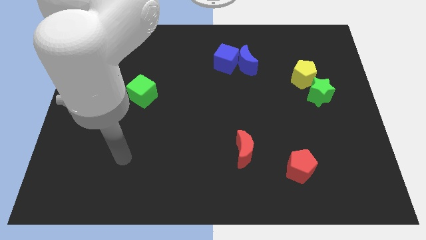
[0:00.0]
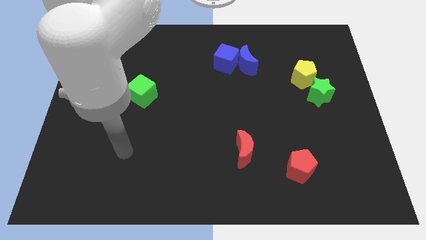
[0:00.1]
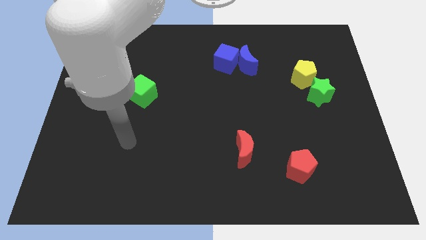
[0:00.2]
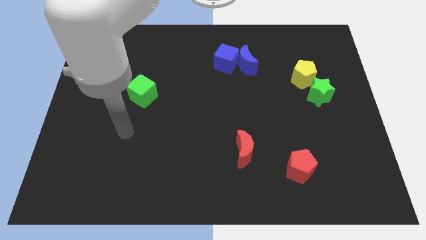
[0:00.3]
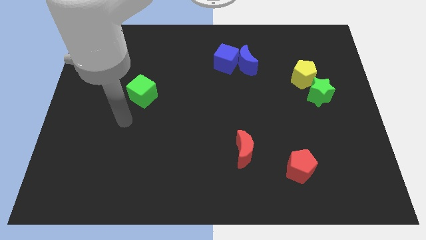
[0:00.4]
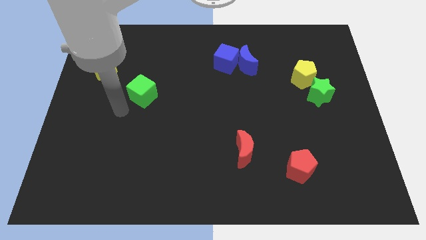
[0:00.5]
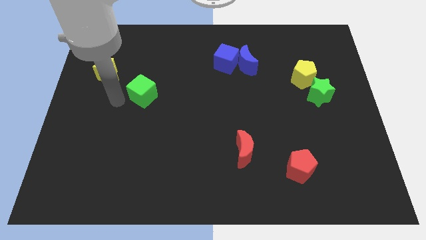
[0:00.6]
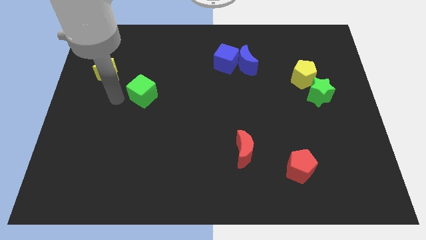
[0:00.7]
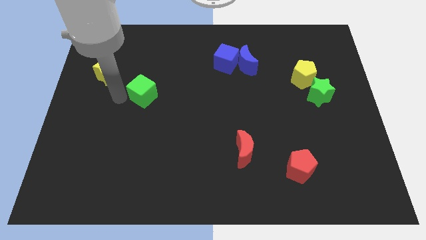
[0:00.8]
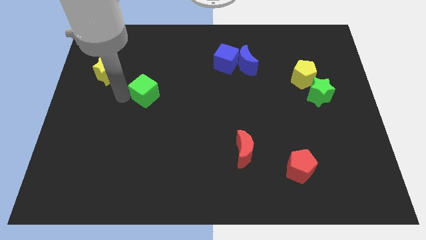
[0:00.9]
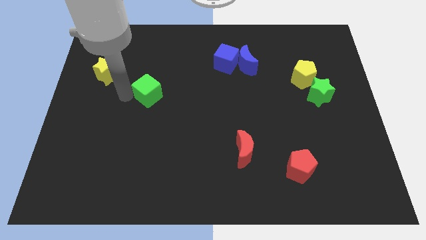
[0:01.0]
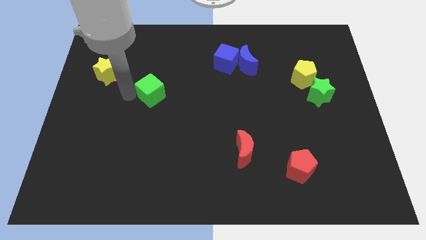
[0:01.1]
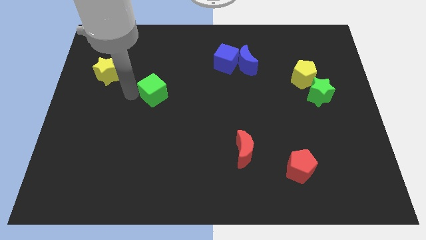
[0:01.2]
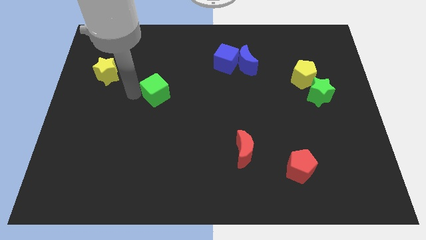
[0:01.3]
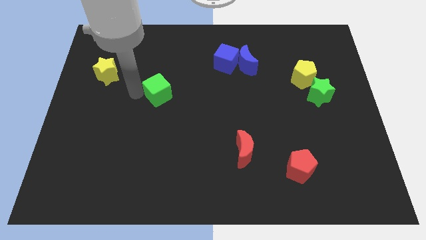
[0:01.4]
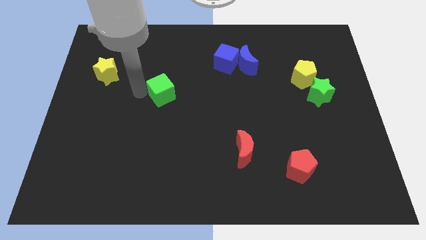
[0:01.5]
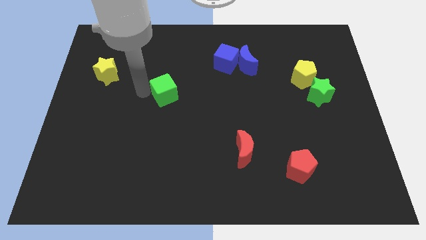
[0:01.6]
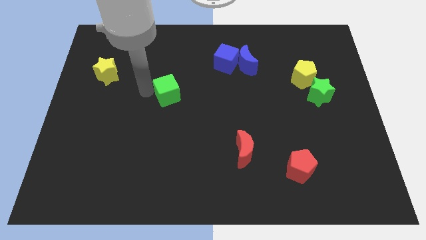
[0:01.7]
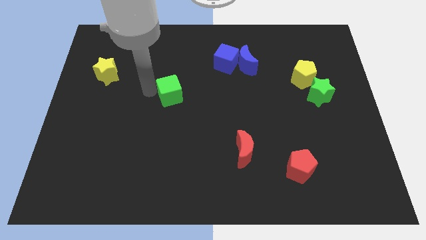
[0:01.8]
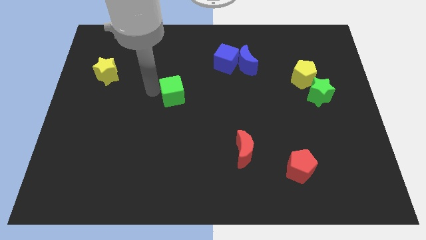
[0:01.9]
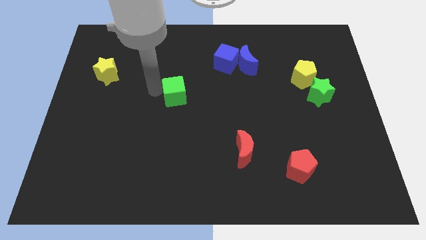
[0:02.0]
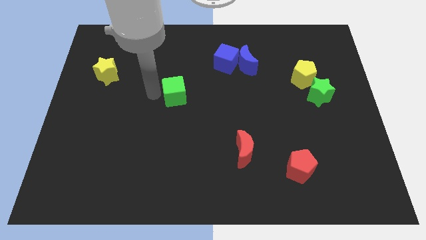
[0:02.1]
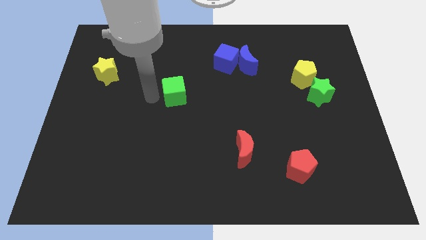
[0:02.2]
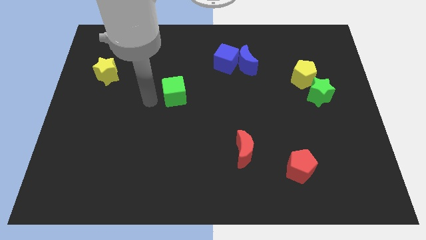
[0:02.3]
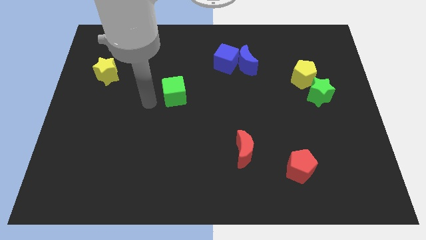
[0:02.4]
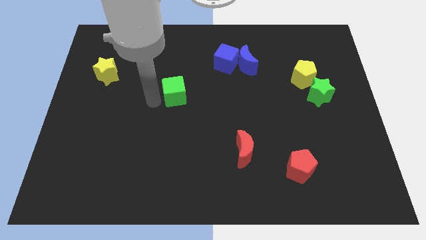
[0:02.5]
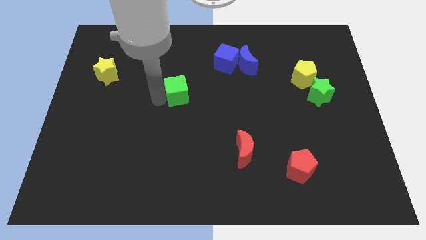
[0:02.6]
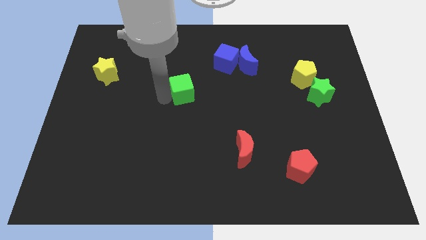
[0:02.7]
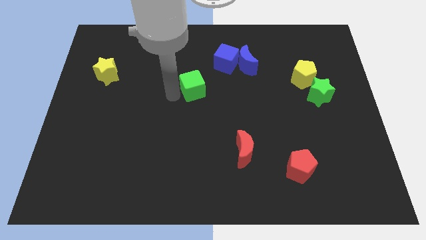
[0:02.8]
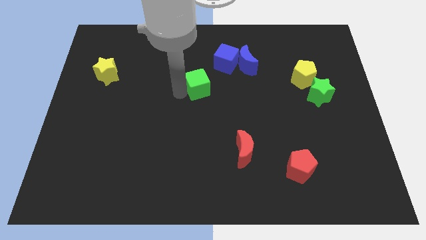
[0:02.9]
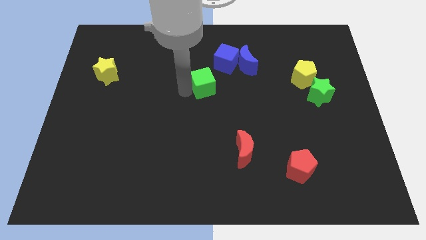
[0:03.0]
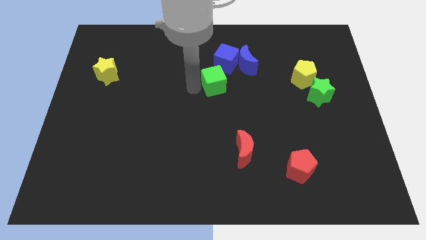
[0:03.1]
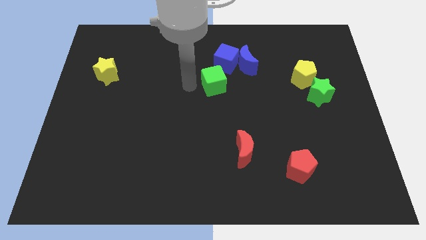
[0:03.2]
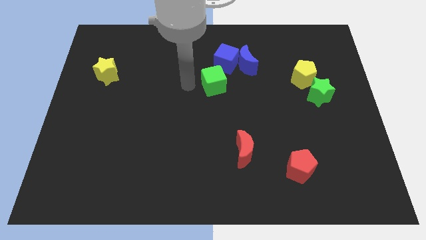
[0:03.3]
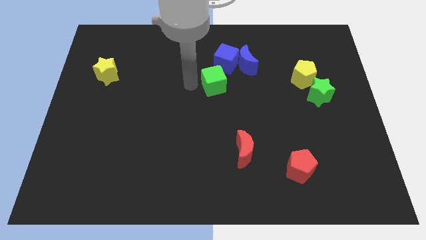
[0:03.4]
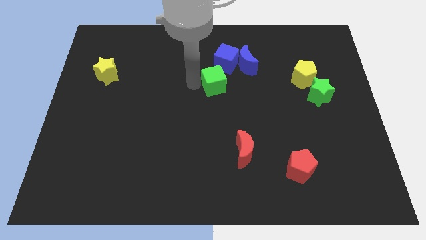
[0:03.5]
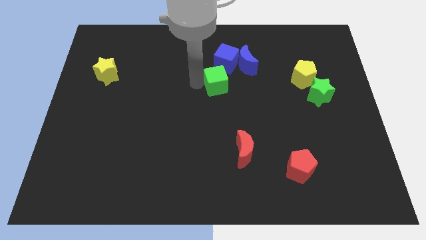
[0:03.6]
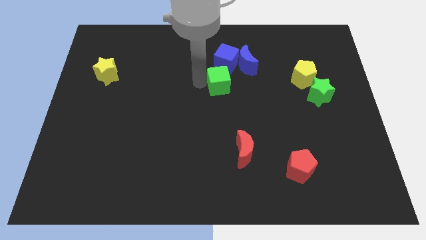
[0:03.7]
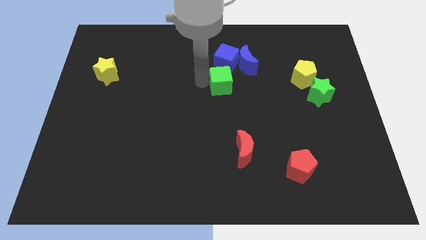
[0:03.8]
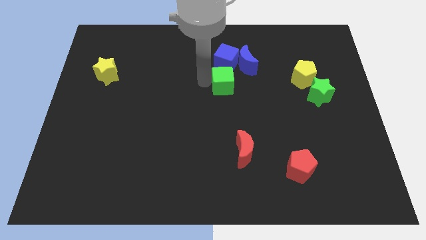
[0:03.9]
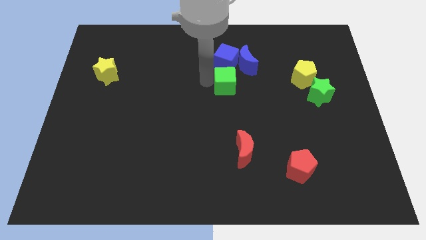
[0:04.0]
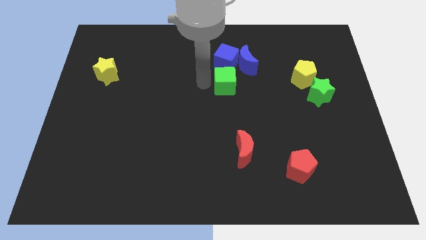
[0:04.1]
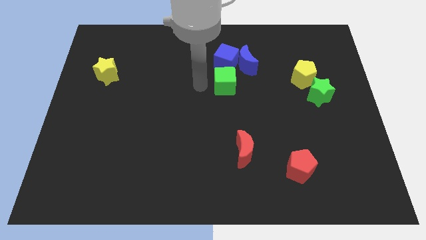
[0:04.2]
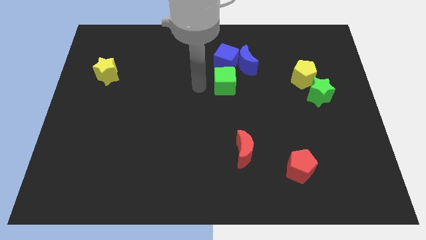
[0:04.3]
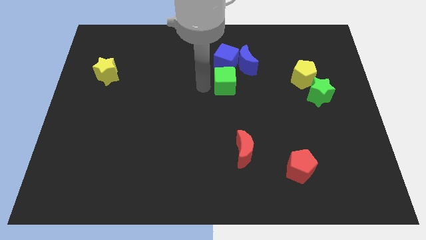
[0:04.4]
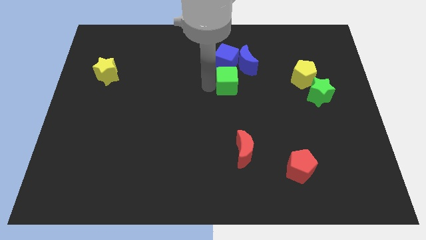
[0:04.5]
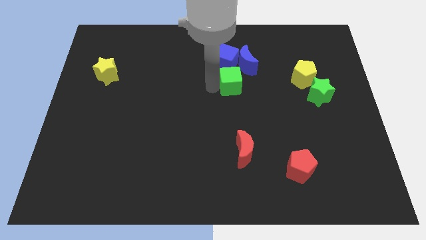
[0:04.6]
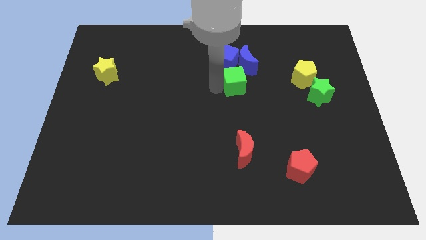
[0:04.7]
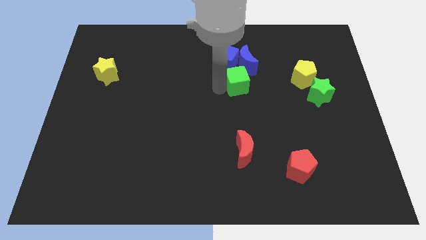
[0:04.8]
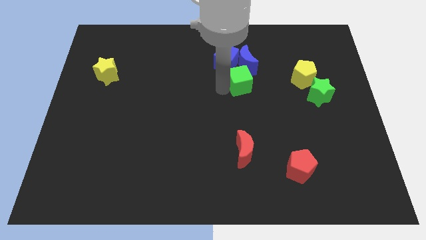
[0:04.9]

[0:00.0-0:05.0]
move the green cube left of the yellow pentagon

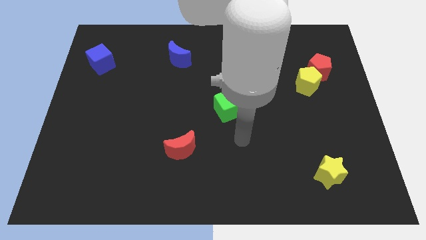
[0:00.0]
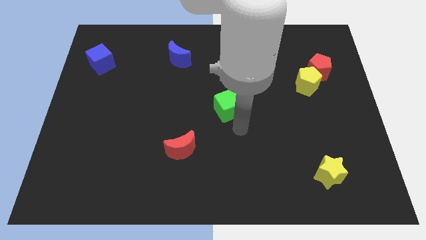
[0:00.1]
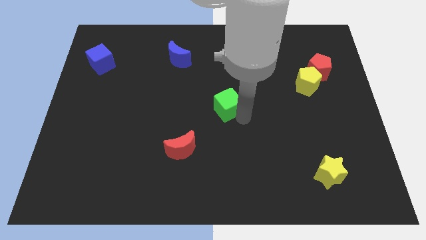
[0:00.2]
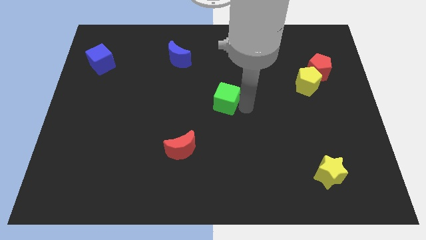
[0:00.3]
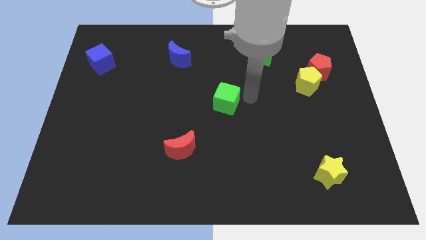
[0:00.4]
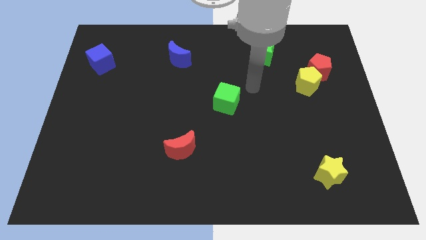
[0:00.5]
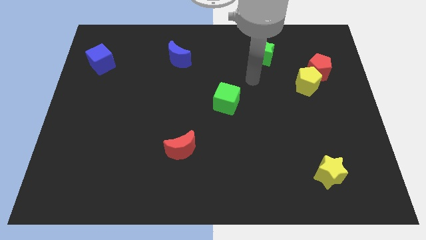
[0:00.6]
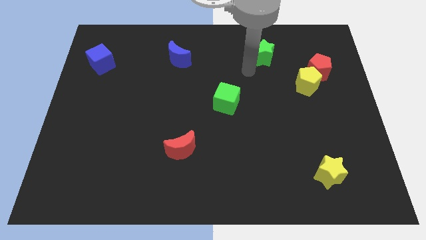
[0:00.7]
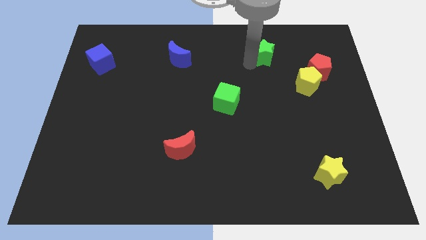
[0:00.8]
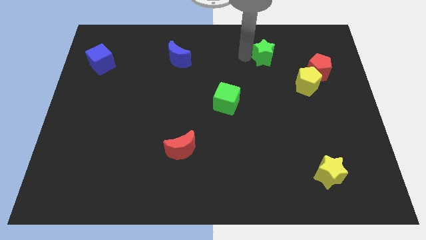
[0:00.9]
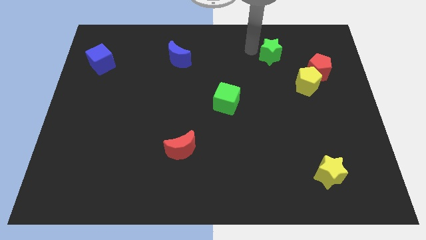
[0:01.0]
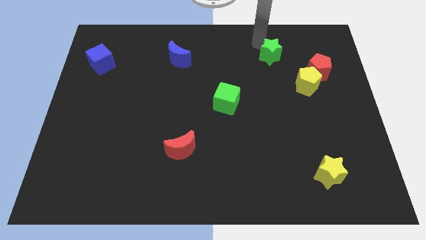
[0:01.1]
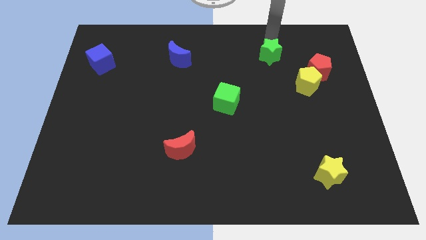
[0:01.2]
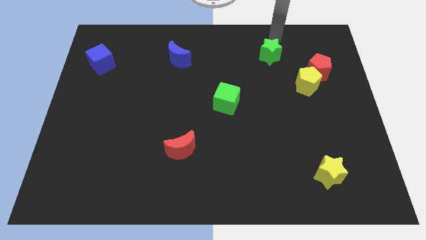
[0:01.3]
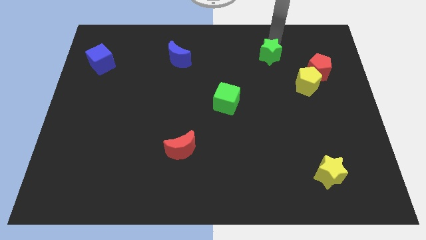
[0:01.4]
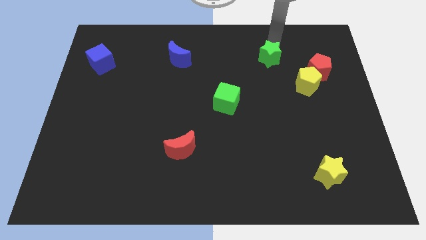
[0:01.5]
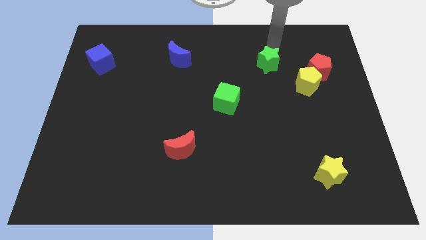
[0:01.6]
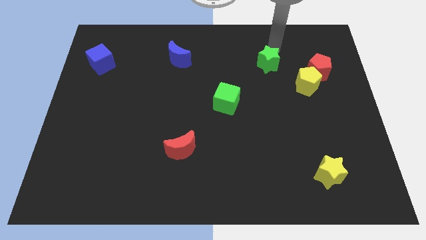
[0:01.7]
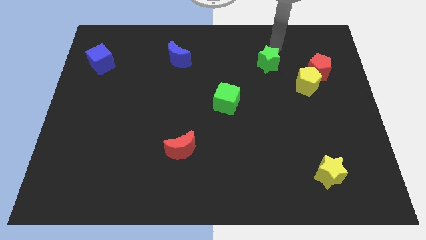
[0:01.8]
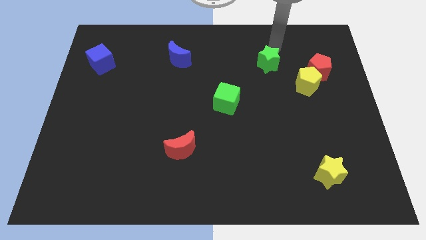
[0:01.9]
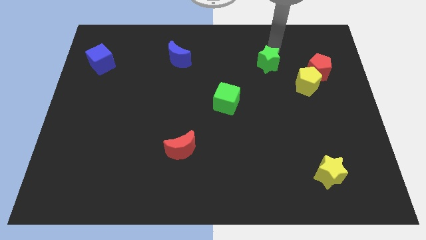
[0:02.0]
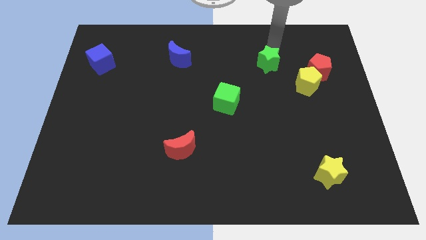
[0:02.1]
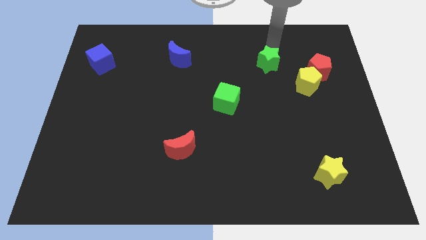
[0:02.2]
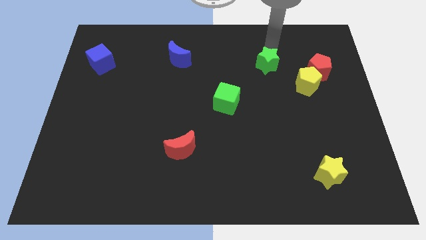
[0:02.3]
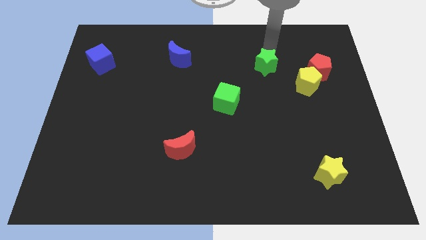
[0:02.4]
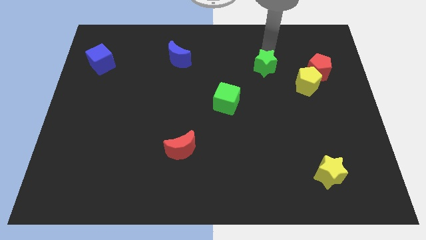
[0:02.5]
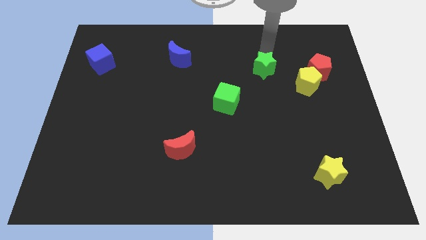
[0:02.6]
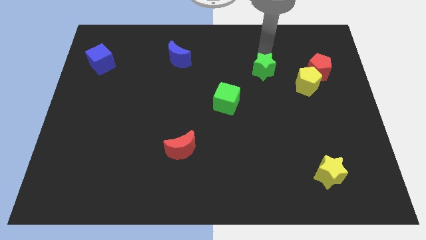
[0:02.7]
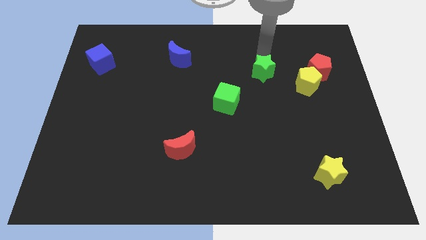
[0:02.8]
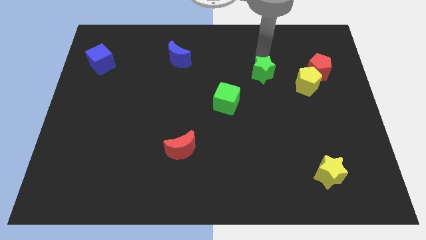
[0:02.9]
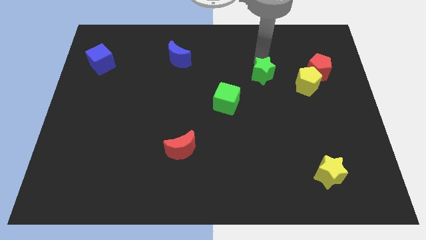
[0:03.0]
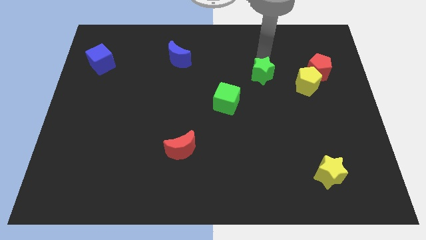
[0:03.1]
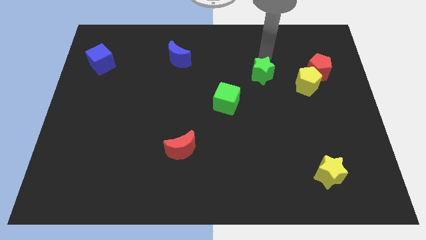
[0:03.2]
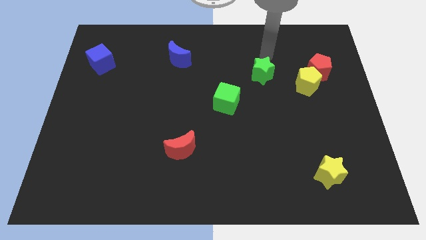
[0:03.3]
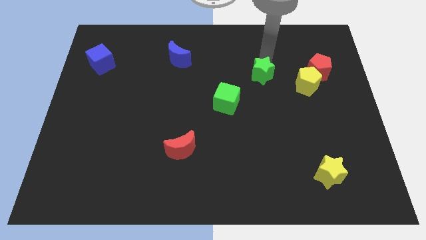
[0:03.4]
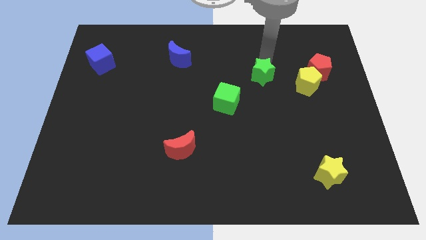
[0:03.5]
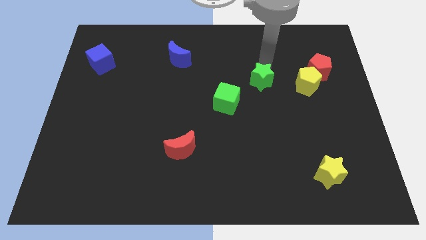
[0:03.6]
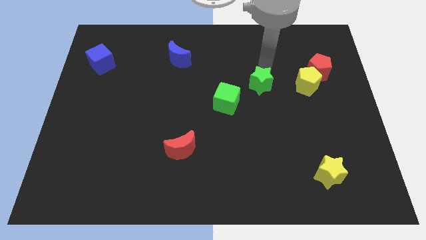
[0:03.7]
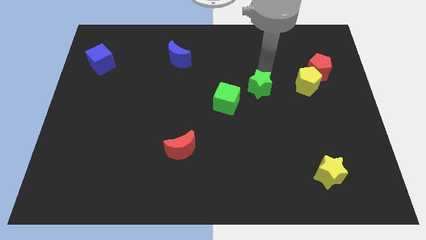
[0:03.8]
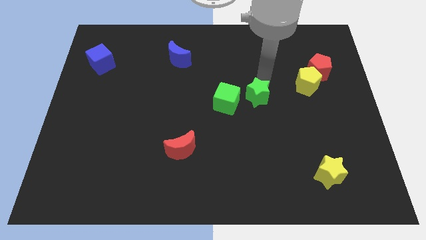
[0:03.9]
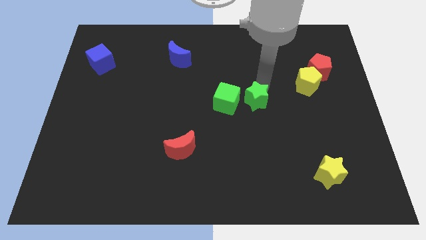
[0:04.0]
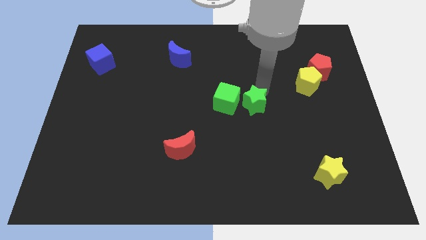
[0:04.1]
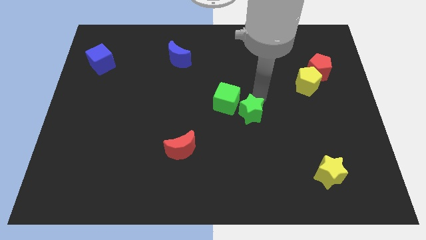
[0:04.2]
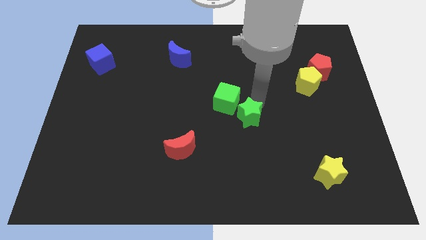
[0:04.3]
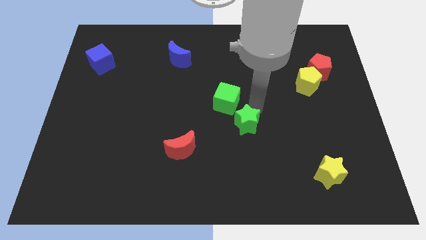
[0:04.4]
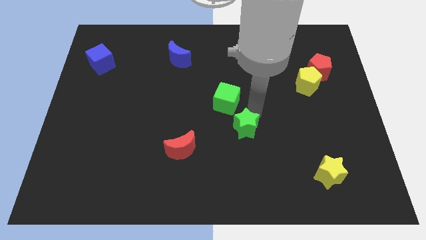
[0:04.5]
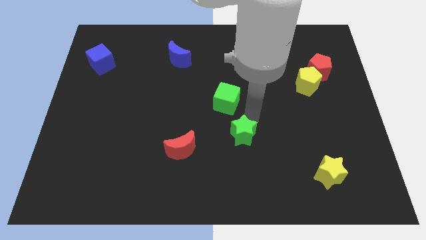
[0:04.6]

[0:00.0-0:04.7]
push the green star right of the red moon
